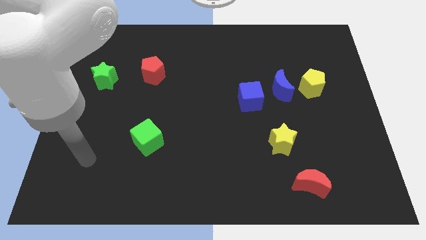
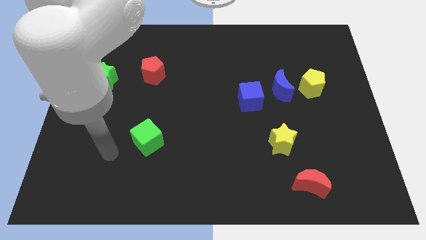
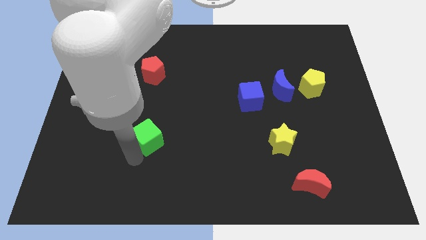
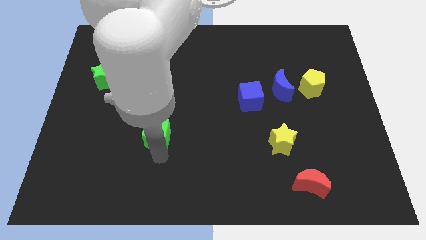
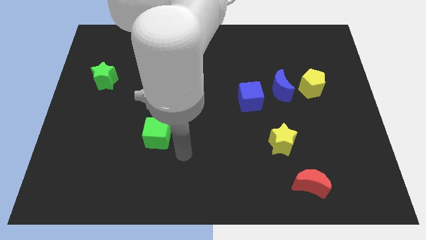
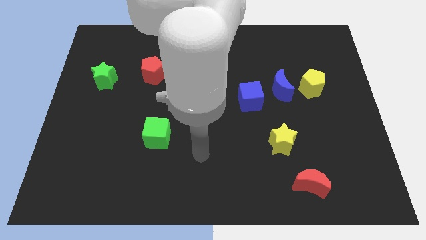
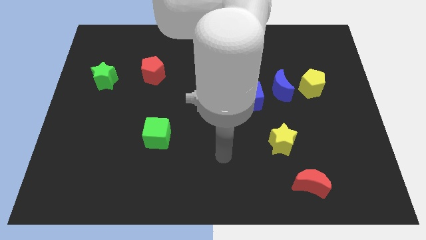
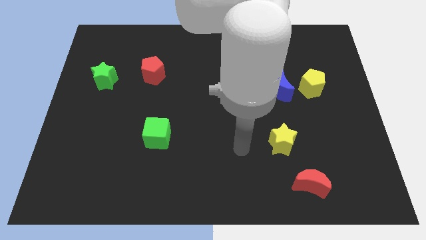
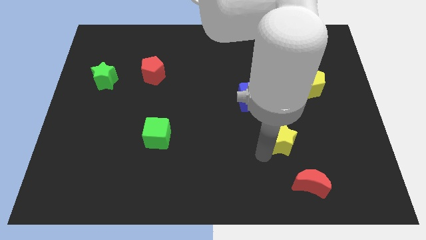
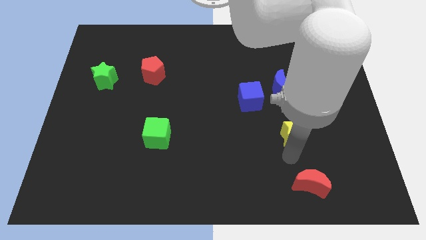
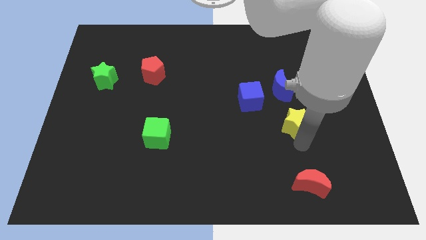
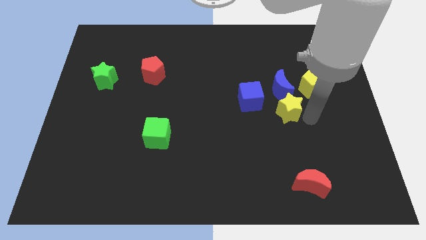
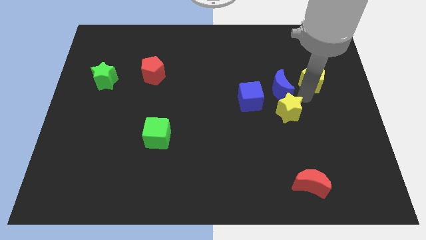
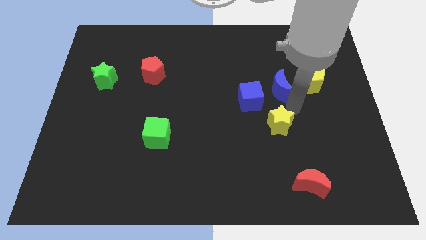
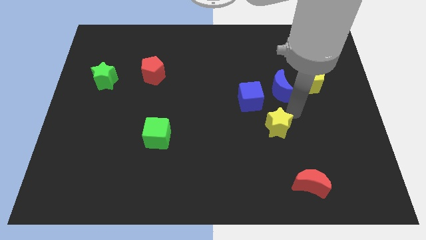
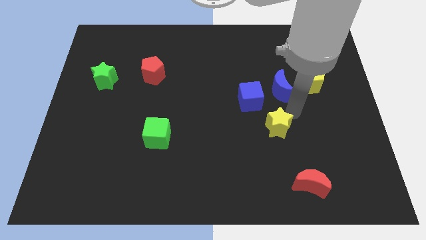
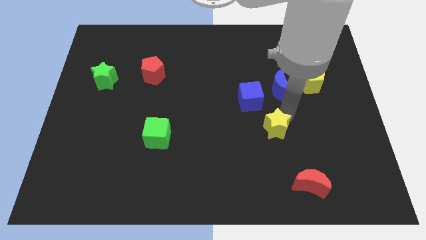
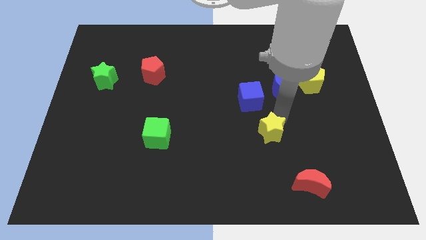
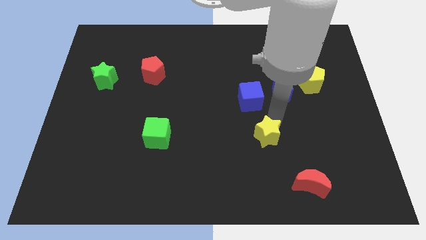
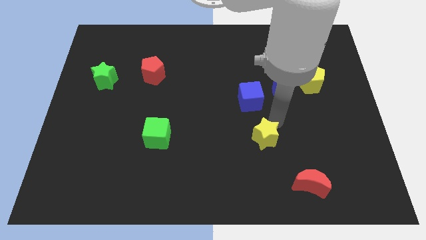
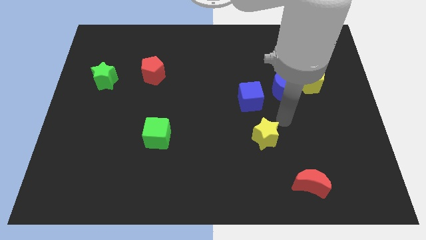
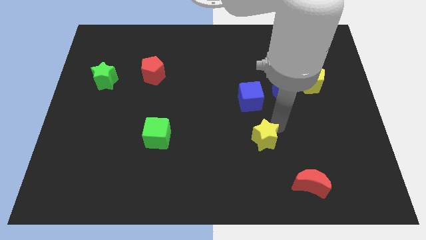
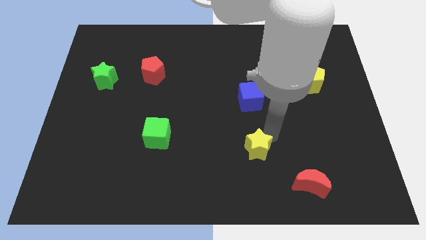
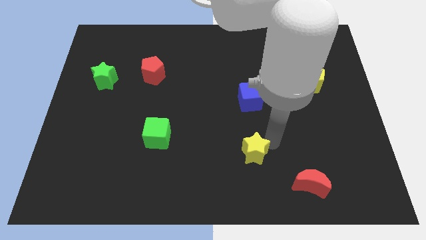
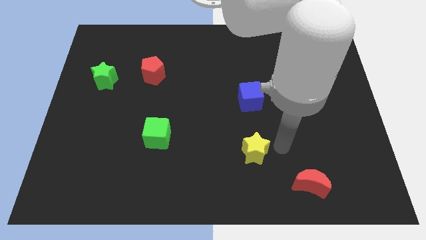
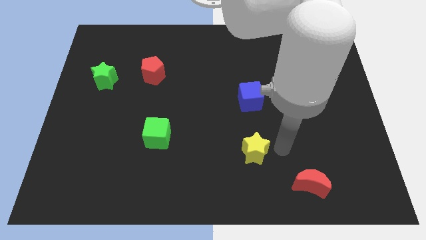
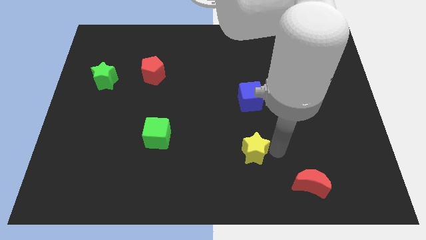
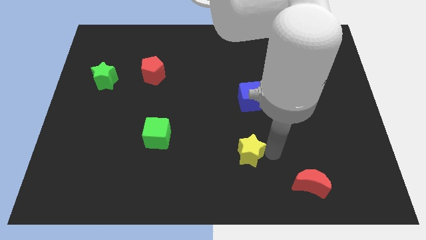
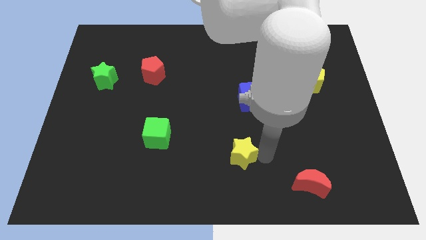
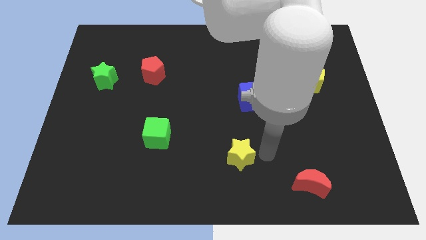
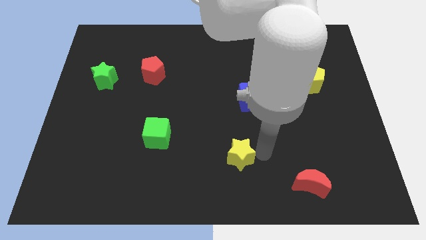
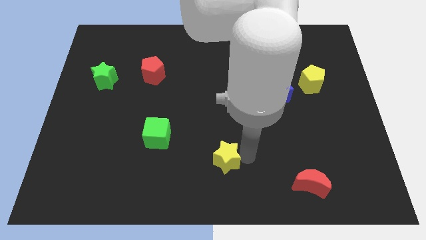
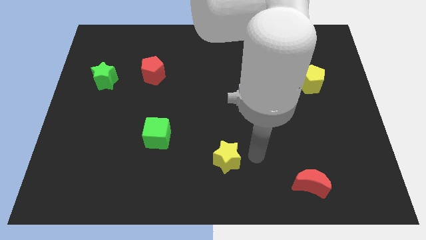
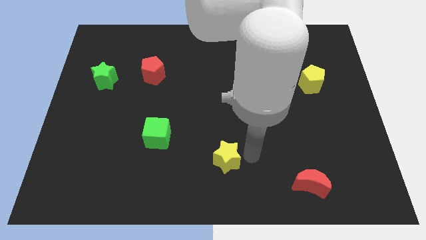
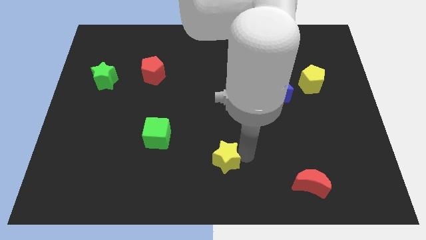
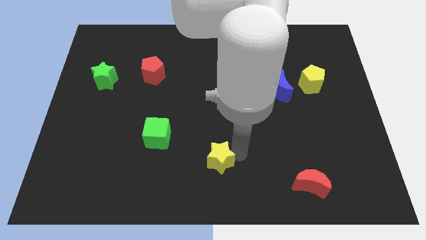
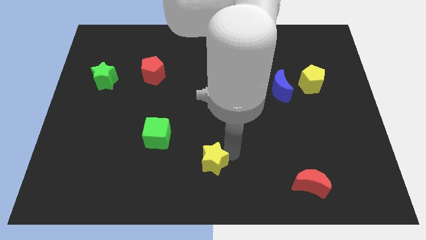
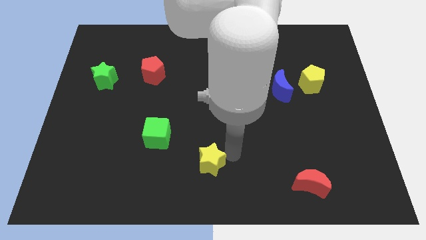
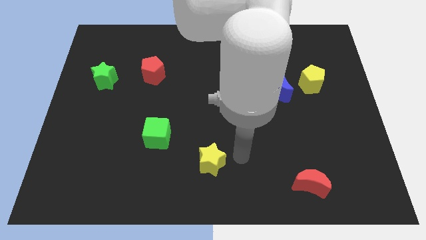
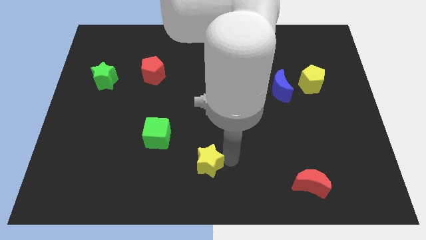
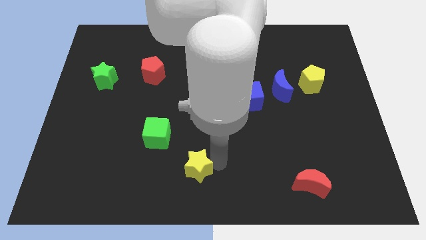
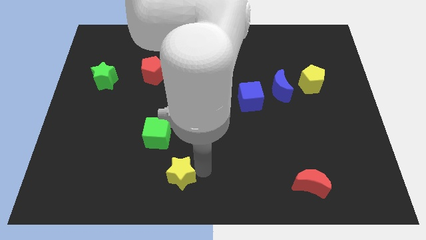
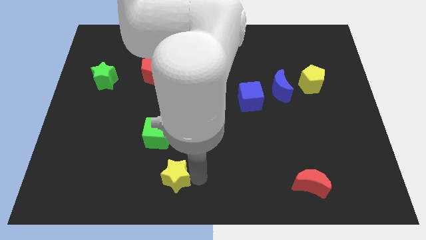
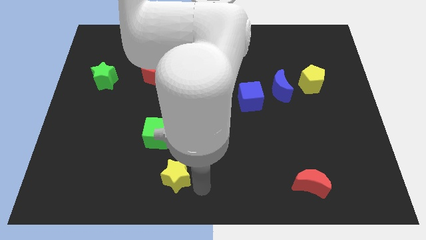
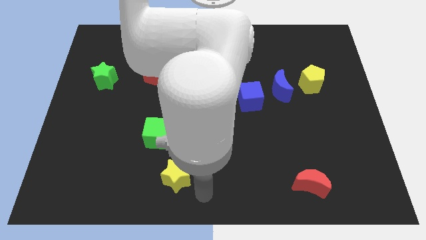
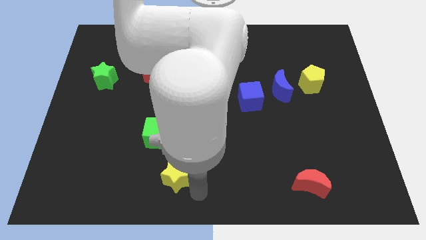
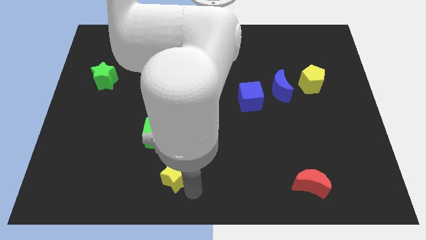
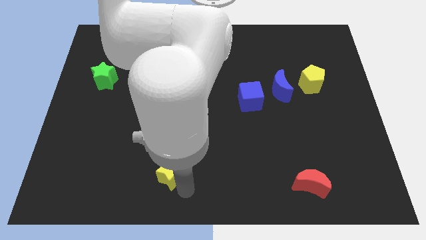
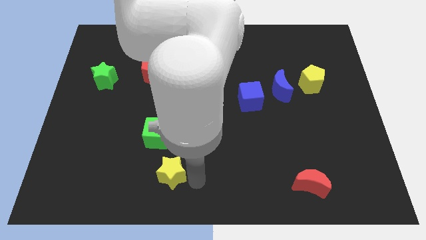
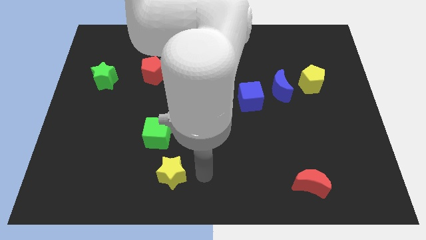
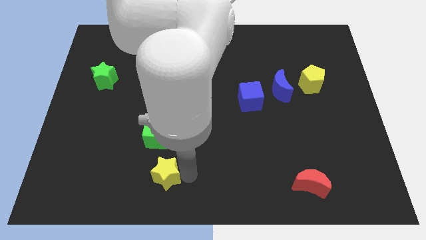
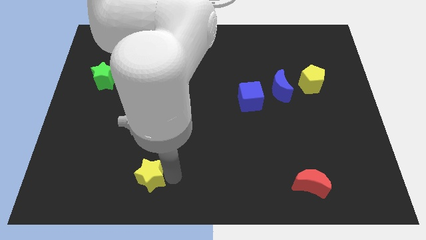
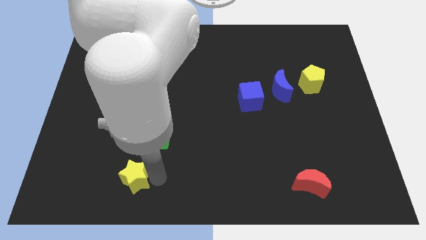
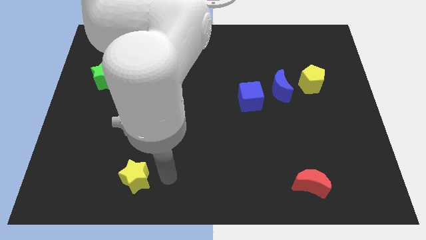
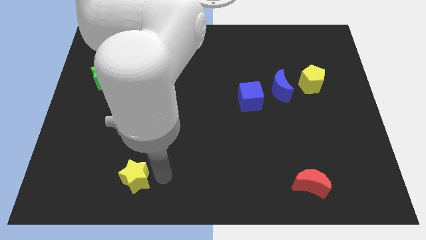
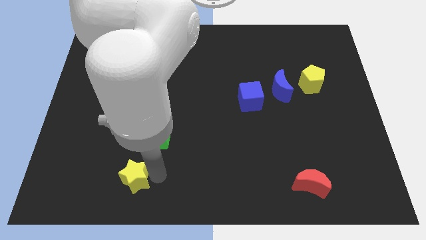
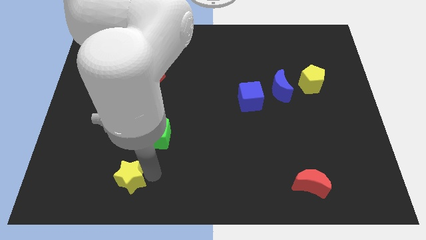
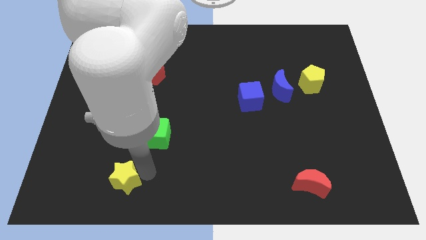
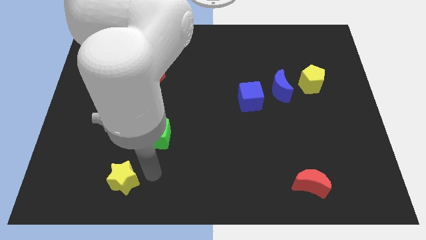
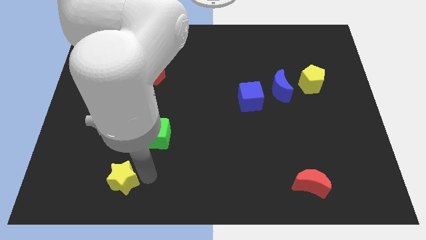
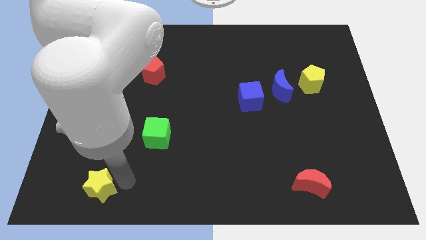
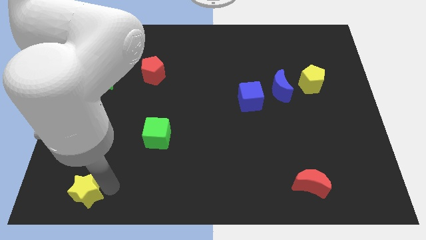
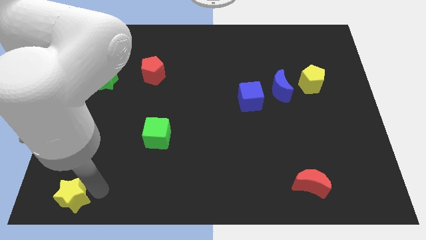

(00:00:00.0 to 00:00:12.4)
put the yellow star to the bottom left corner
